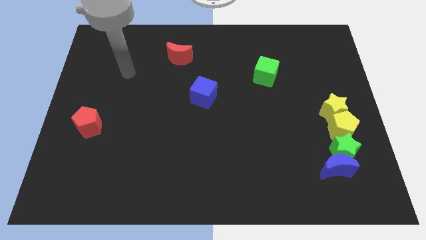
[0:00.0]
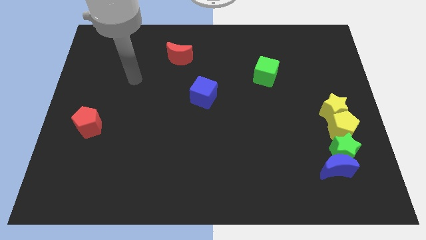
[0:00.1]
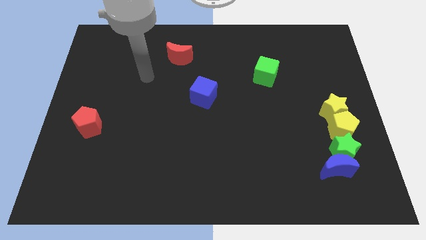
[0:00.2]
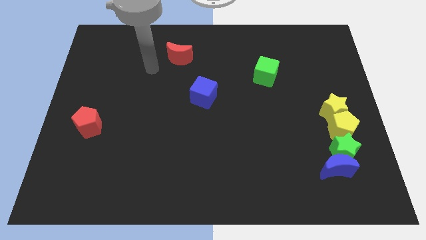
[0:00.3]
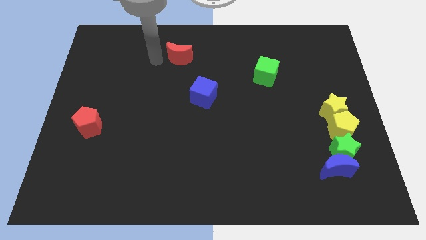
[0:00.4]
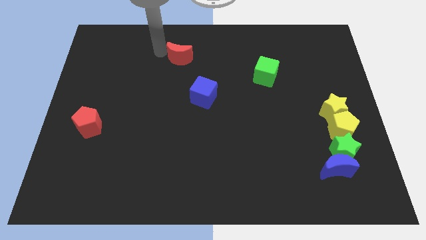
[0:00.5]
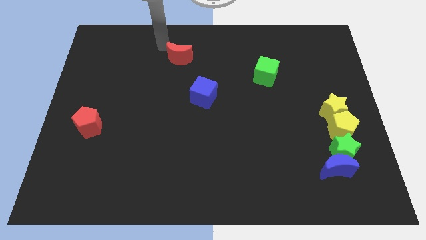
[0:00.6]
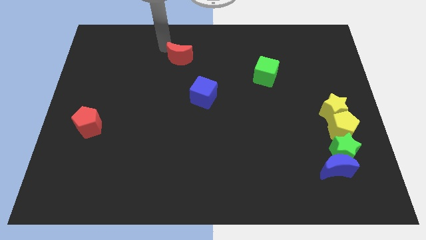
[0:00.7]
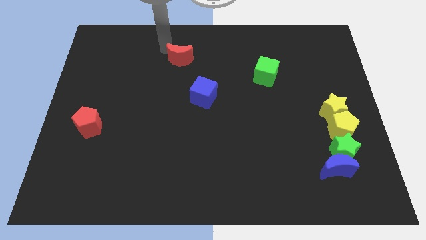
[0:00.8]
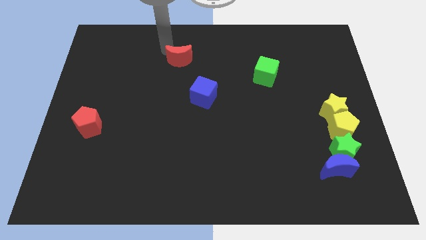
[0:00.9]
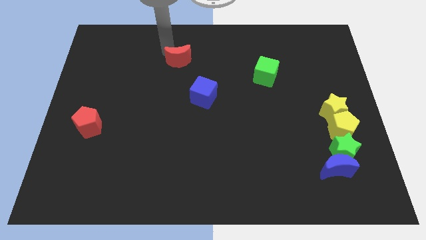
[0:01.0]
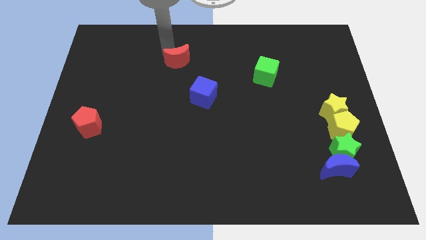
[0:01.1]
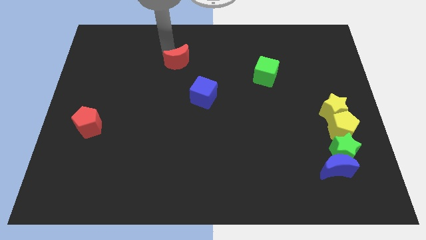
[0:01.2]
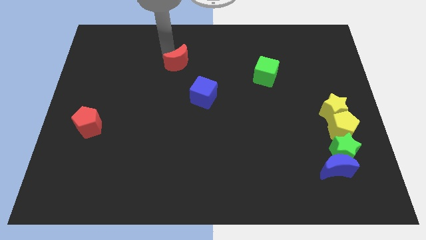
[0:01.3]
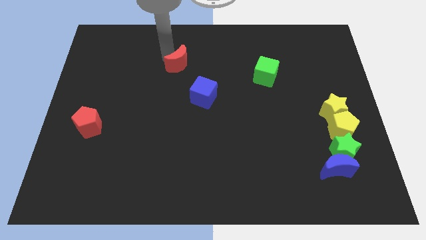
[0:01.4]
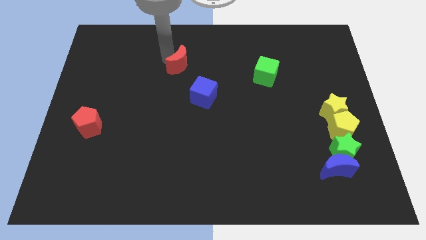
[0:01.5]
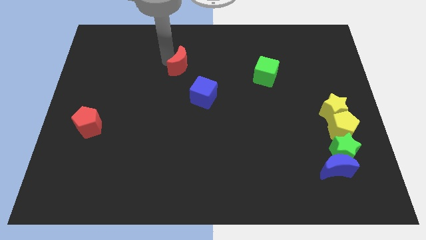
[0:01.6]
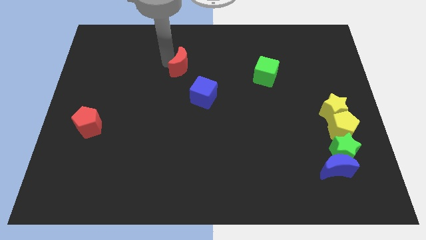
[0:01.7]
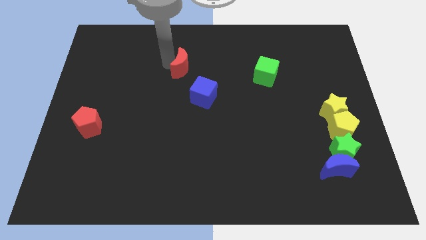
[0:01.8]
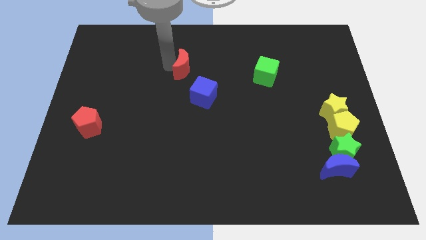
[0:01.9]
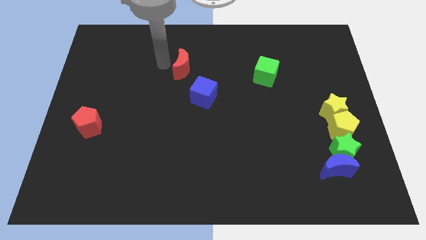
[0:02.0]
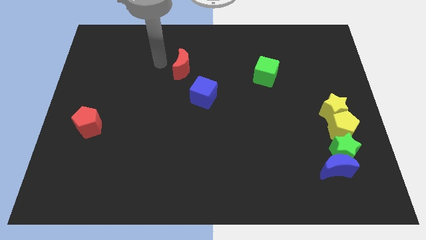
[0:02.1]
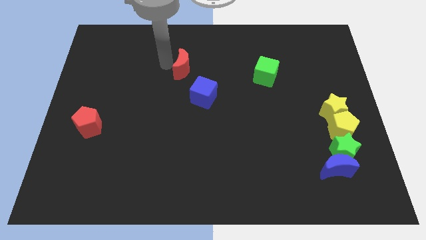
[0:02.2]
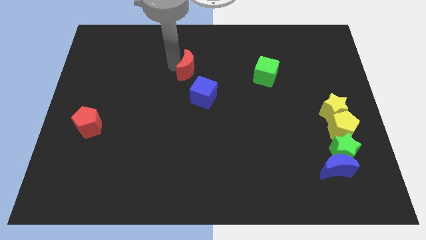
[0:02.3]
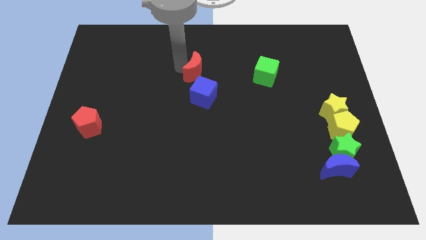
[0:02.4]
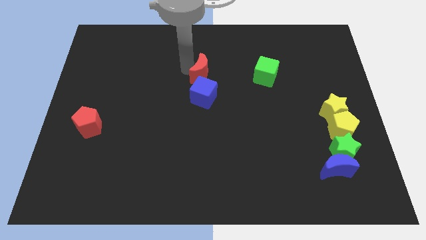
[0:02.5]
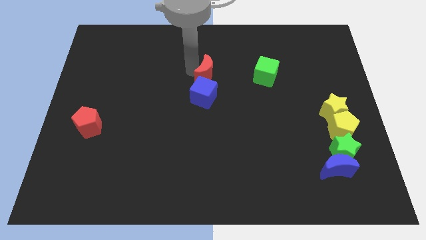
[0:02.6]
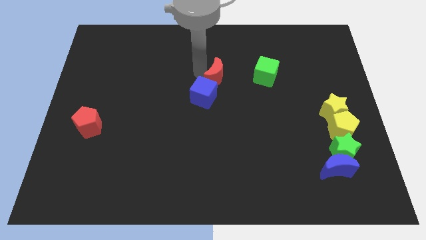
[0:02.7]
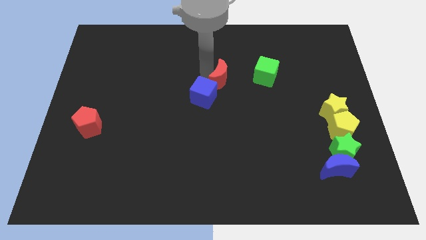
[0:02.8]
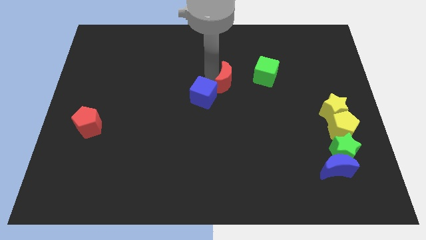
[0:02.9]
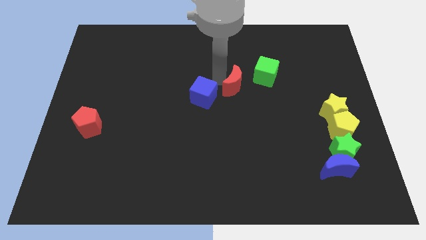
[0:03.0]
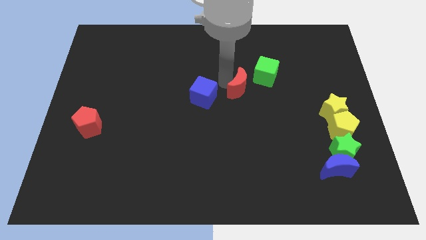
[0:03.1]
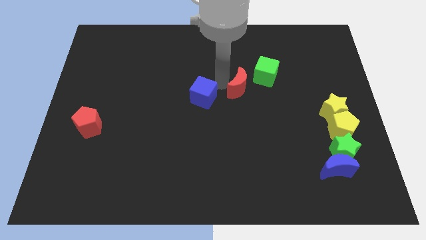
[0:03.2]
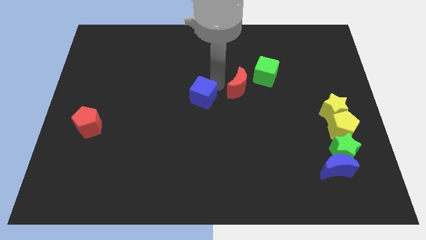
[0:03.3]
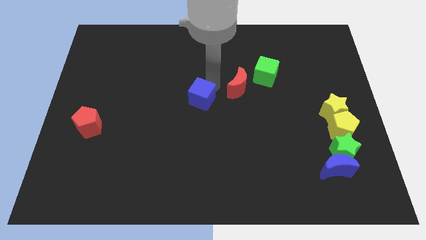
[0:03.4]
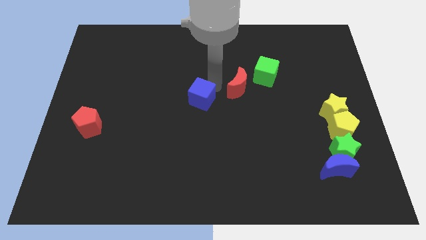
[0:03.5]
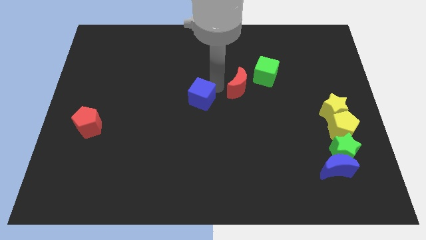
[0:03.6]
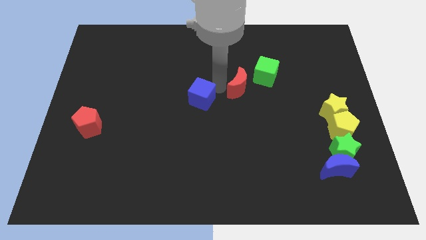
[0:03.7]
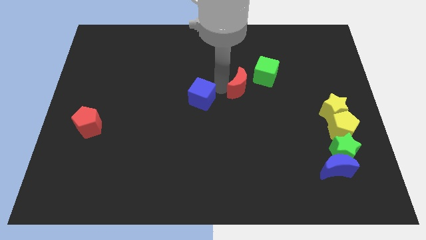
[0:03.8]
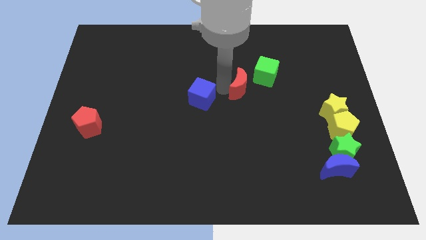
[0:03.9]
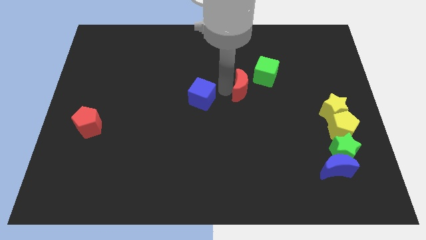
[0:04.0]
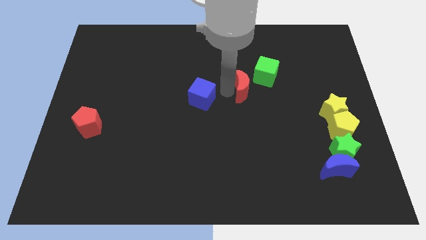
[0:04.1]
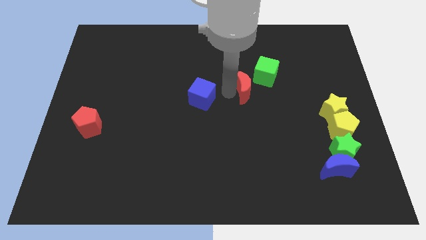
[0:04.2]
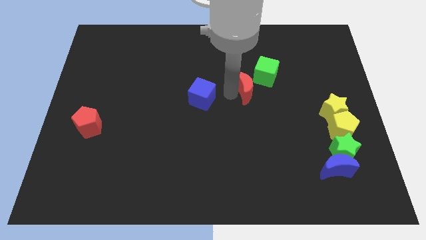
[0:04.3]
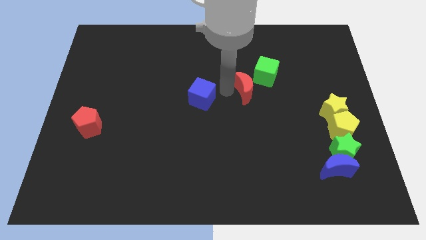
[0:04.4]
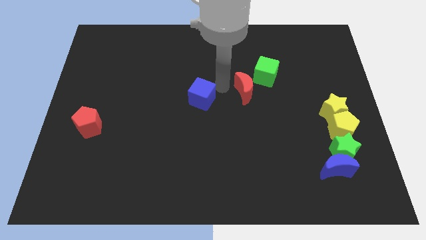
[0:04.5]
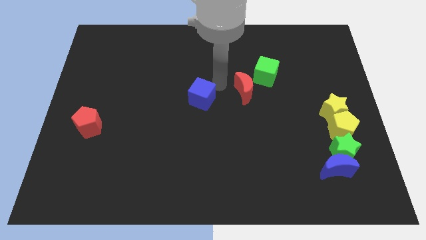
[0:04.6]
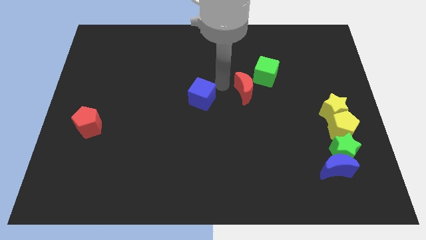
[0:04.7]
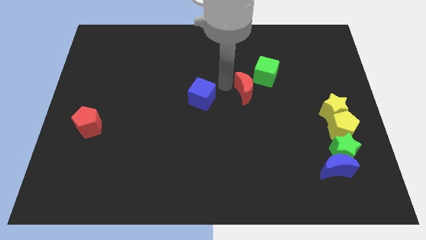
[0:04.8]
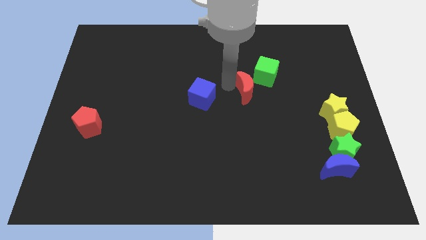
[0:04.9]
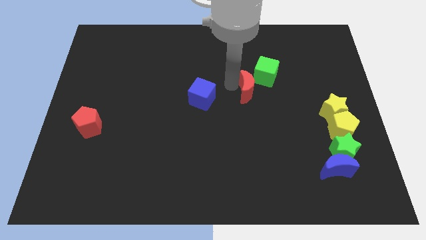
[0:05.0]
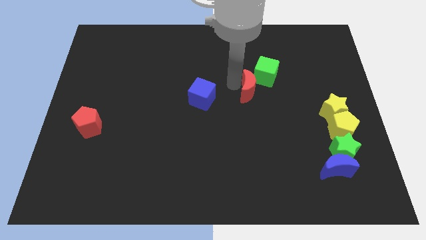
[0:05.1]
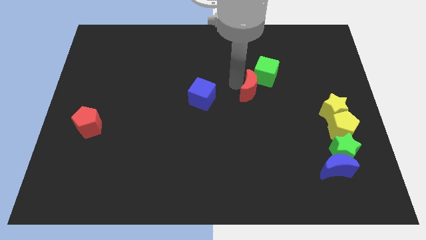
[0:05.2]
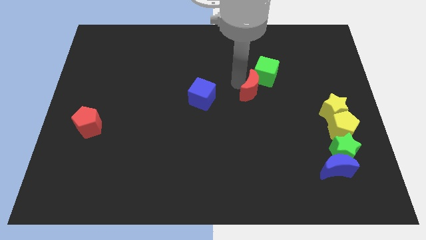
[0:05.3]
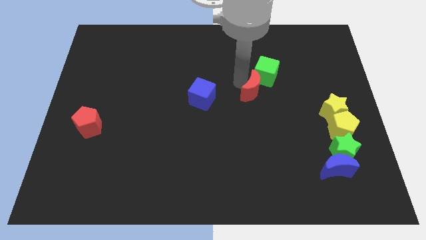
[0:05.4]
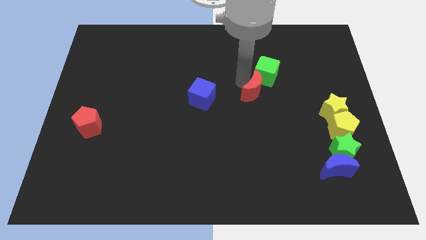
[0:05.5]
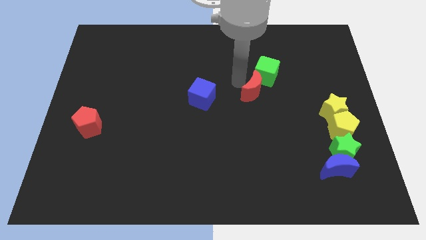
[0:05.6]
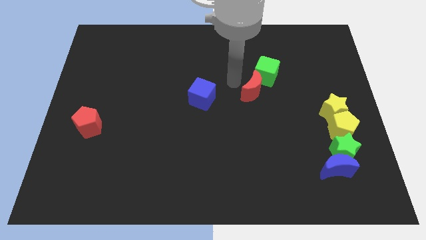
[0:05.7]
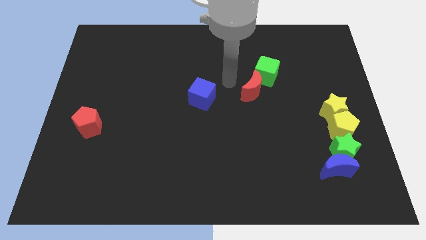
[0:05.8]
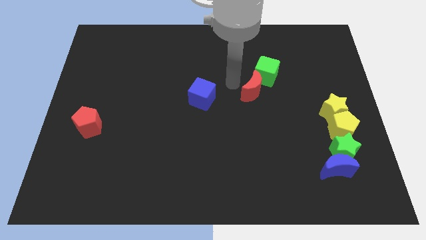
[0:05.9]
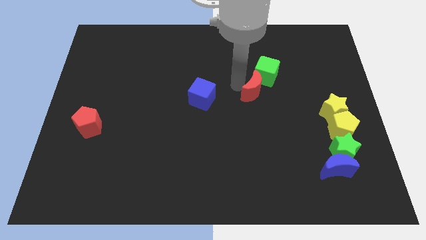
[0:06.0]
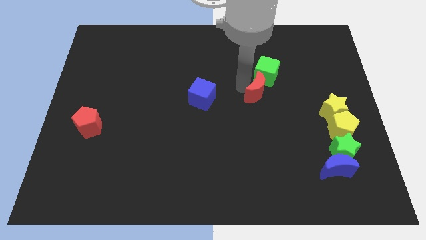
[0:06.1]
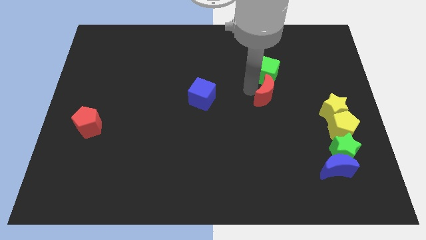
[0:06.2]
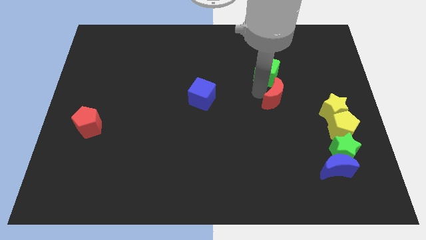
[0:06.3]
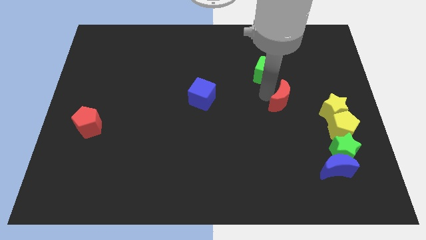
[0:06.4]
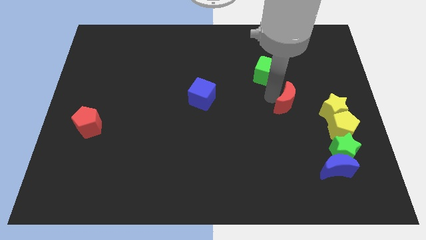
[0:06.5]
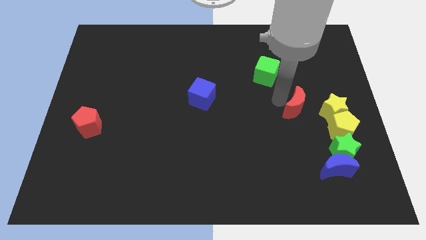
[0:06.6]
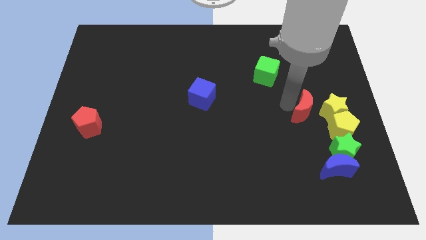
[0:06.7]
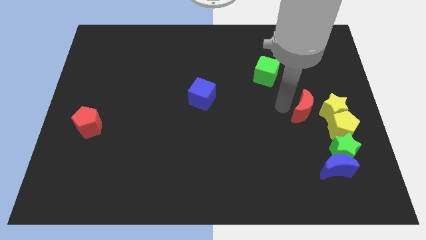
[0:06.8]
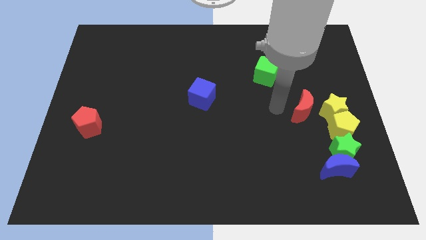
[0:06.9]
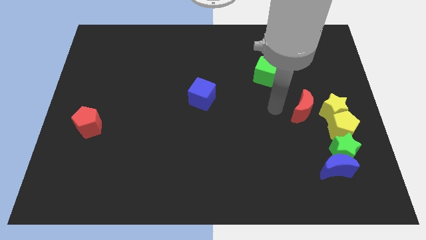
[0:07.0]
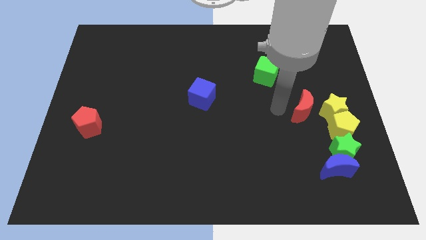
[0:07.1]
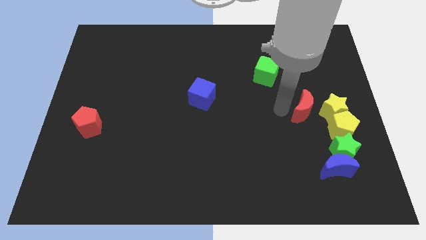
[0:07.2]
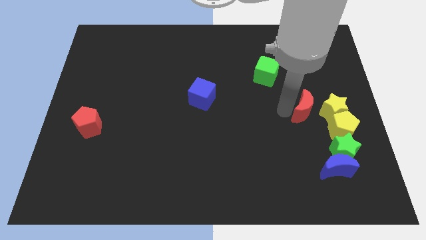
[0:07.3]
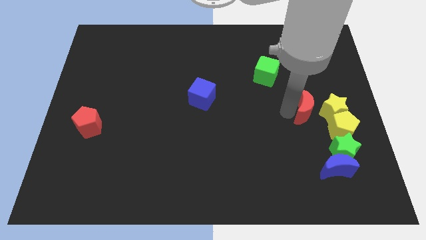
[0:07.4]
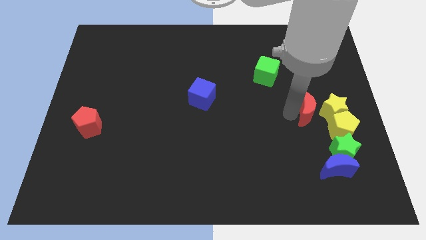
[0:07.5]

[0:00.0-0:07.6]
slide the red moon close to the yellow star
